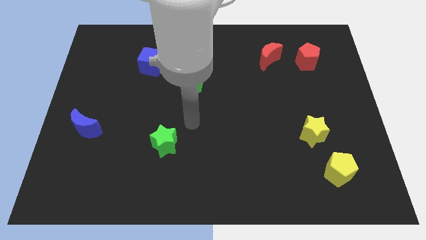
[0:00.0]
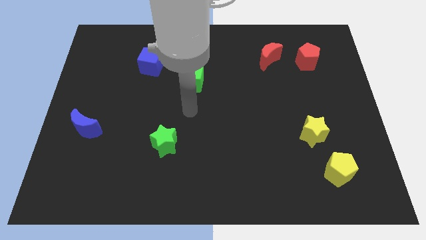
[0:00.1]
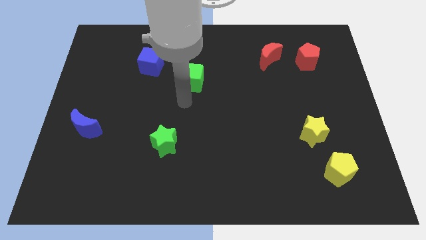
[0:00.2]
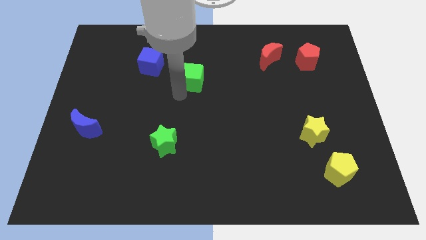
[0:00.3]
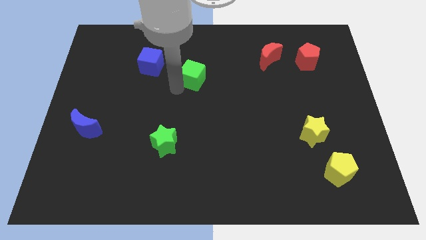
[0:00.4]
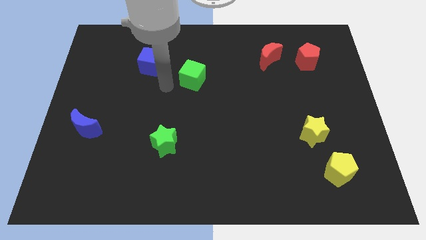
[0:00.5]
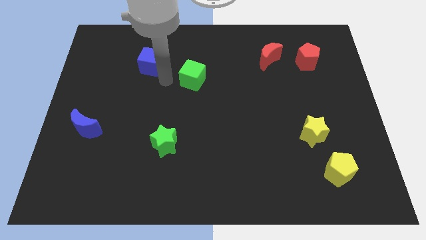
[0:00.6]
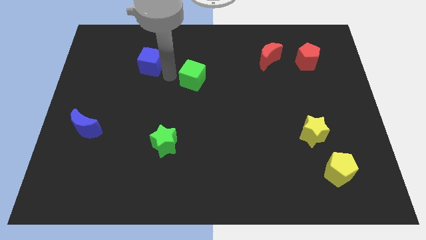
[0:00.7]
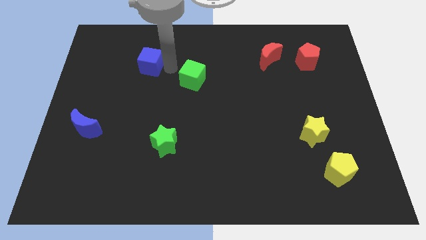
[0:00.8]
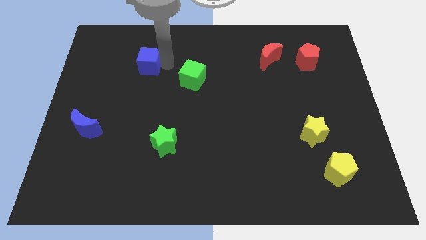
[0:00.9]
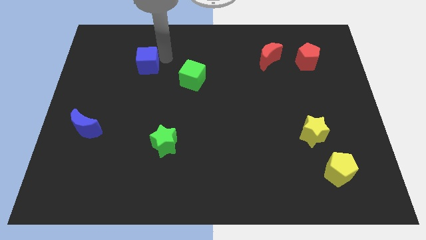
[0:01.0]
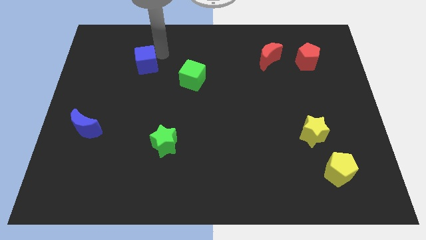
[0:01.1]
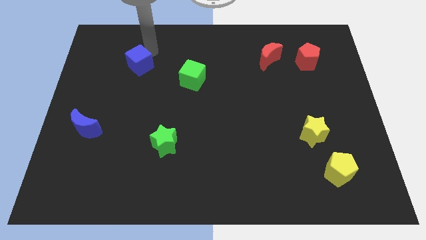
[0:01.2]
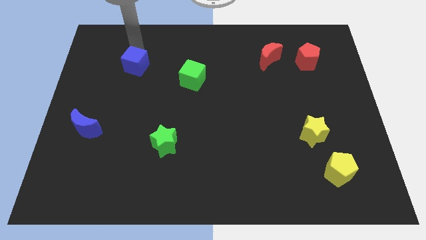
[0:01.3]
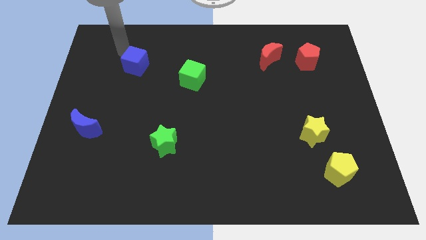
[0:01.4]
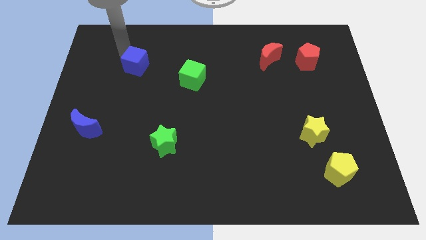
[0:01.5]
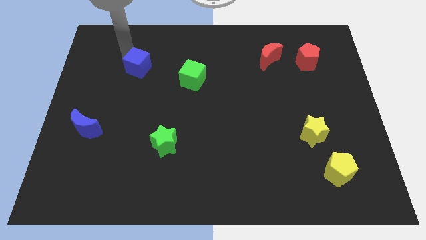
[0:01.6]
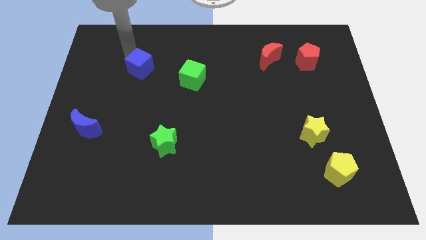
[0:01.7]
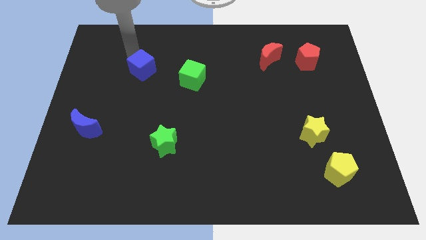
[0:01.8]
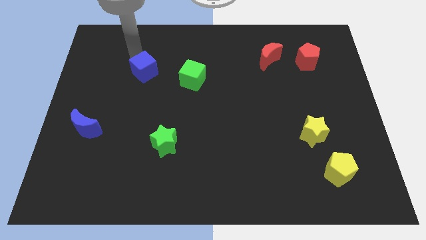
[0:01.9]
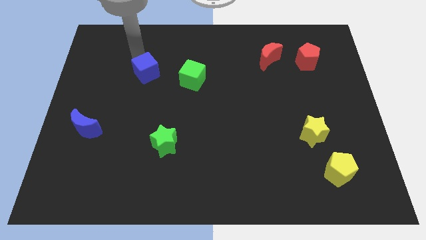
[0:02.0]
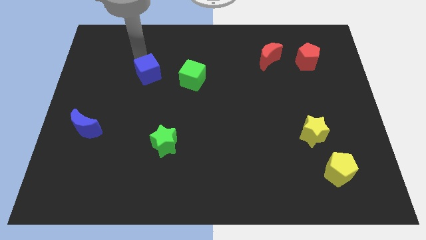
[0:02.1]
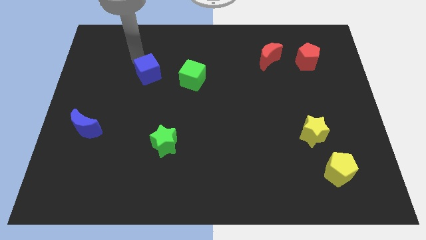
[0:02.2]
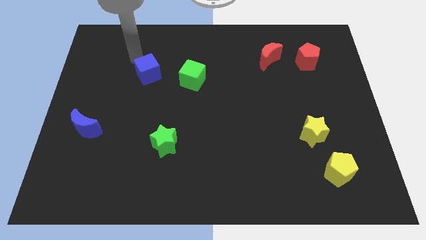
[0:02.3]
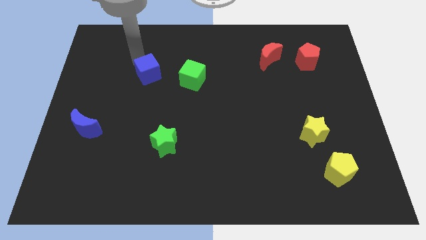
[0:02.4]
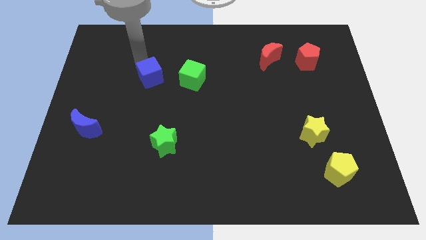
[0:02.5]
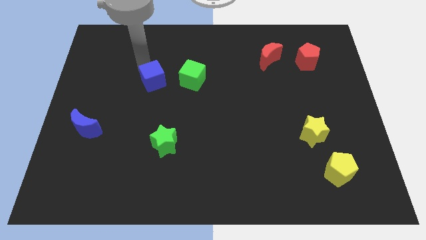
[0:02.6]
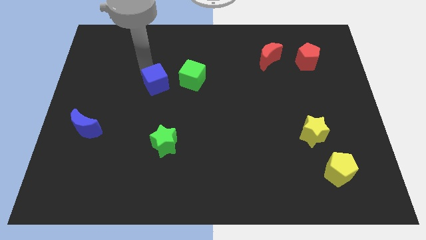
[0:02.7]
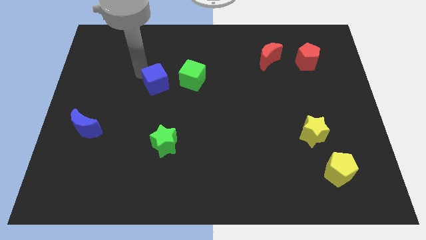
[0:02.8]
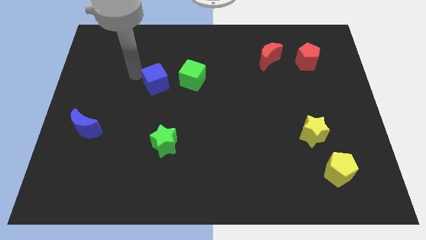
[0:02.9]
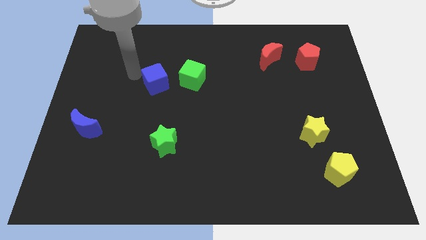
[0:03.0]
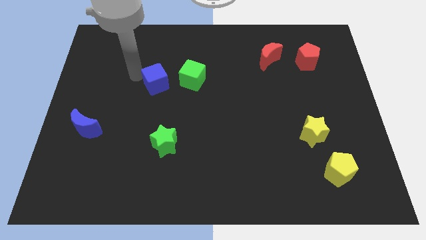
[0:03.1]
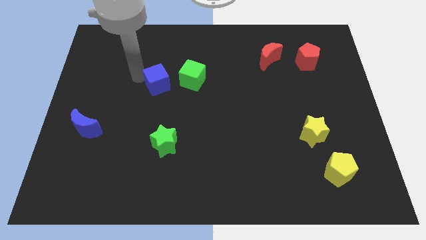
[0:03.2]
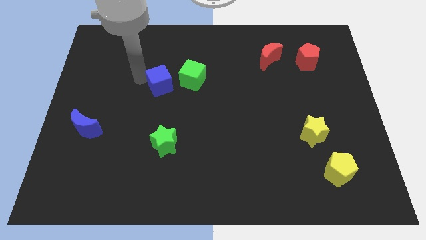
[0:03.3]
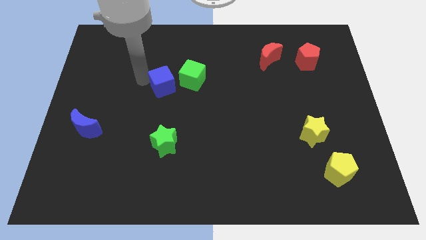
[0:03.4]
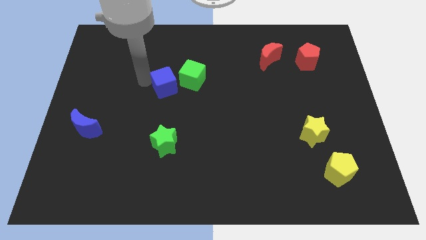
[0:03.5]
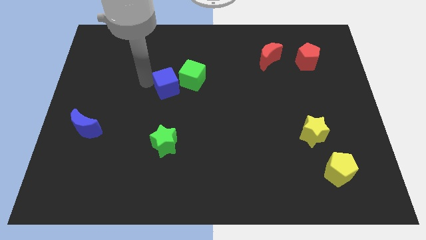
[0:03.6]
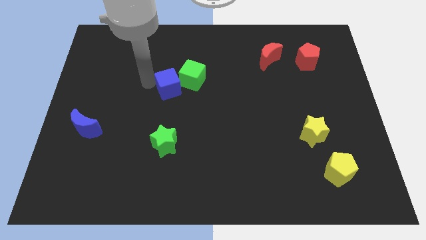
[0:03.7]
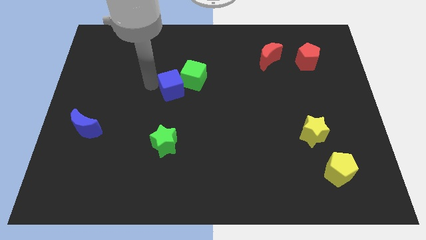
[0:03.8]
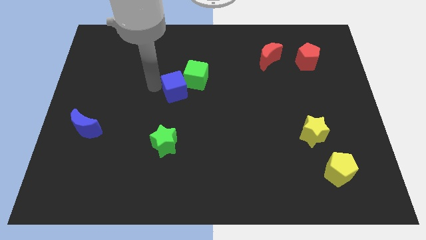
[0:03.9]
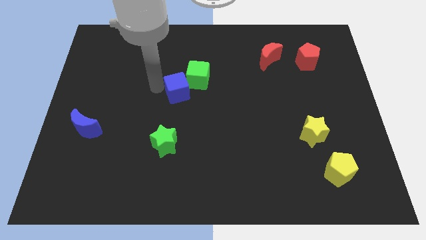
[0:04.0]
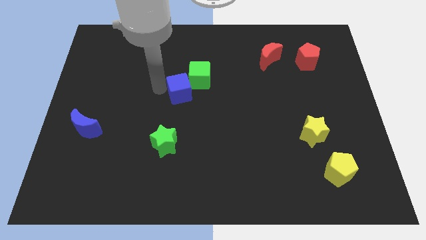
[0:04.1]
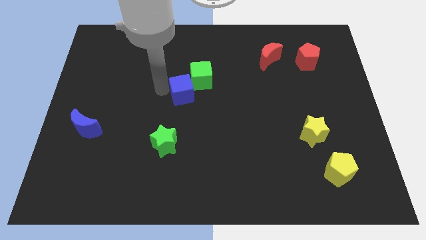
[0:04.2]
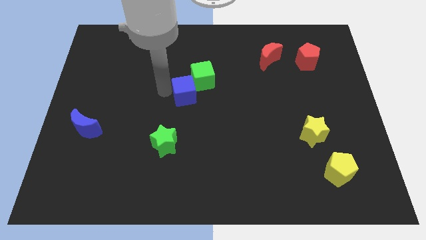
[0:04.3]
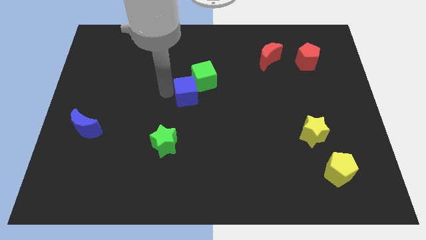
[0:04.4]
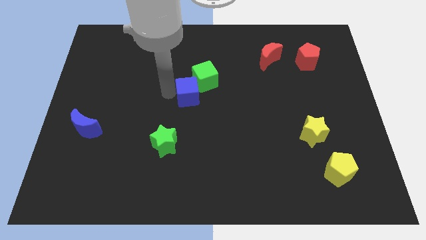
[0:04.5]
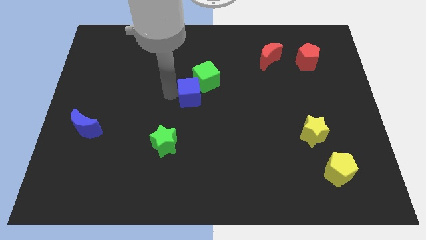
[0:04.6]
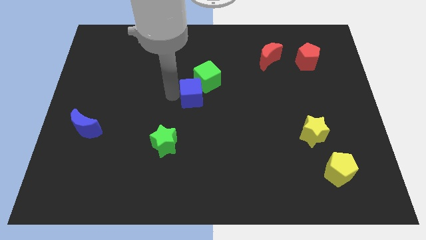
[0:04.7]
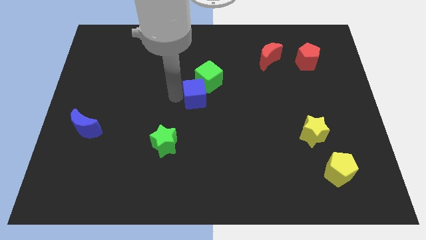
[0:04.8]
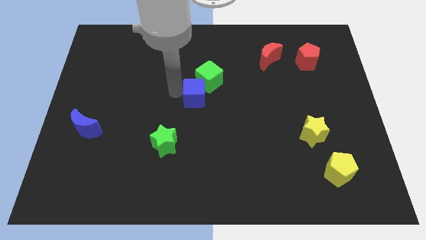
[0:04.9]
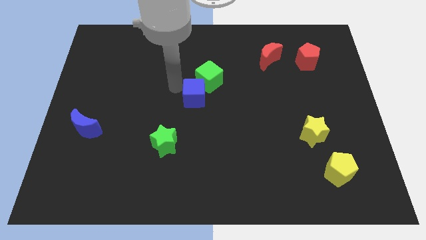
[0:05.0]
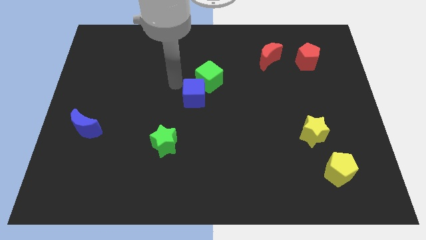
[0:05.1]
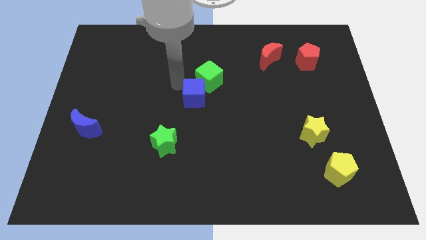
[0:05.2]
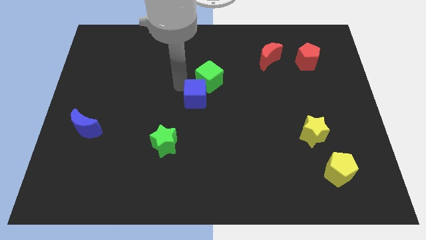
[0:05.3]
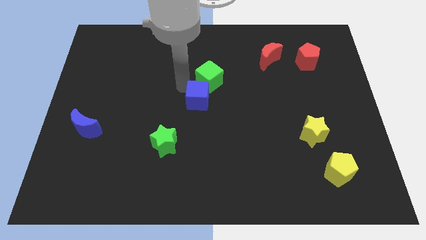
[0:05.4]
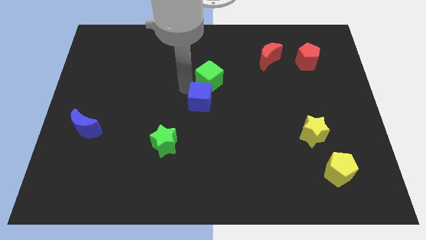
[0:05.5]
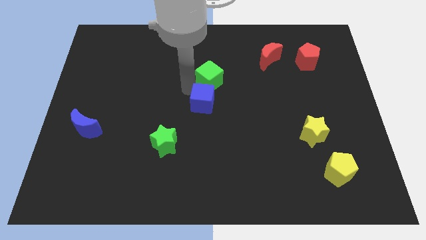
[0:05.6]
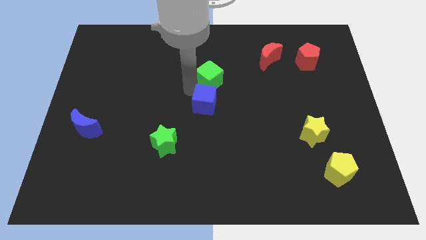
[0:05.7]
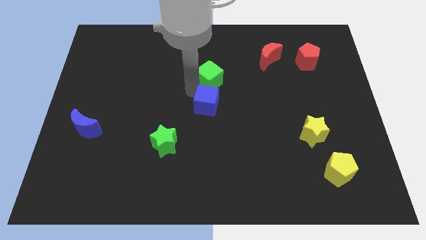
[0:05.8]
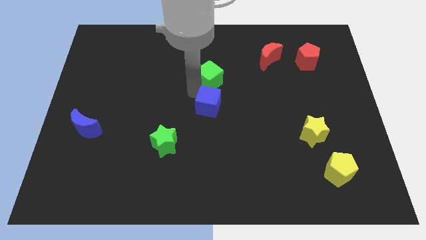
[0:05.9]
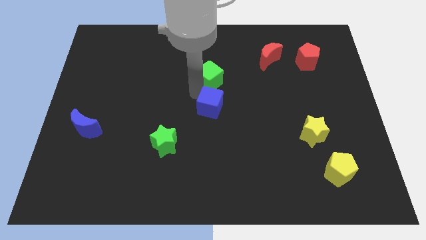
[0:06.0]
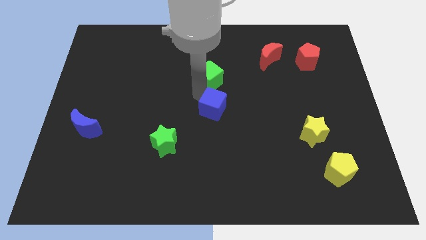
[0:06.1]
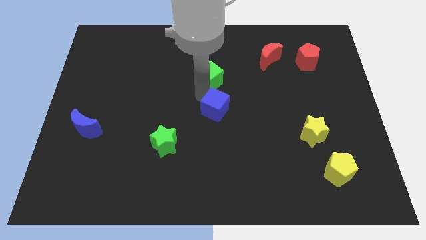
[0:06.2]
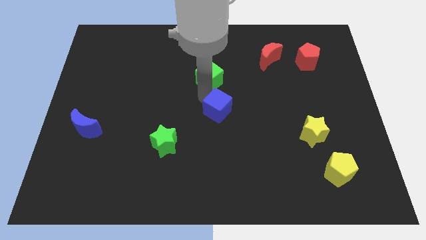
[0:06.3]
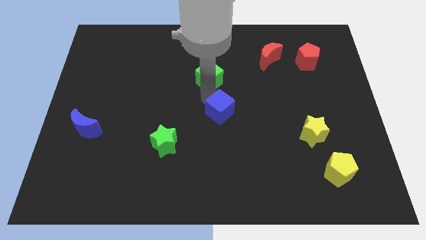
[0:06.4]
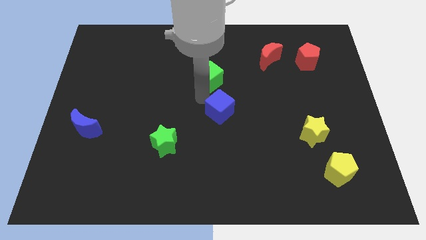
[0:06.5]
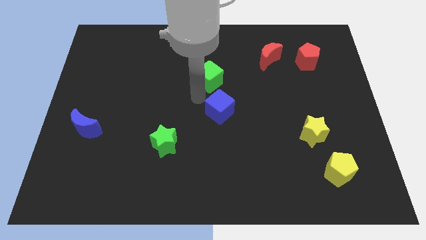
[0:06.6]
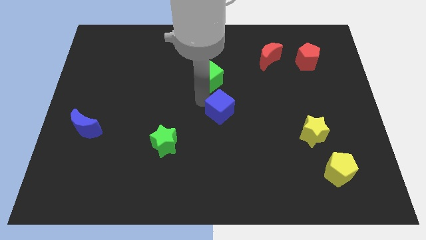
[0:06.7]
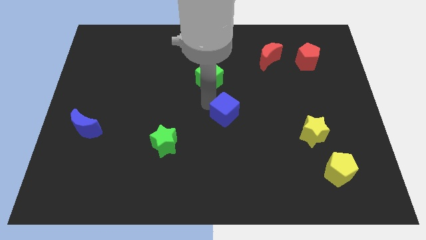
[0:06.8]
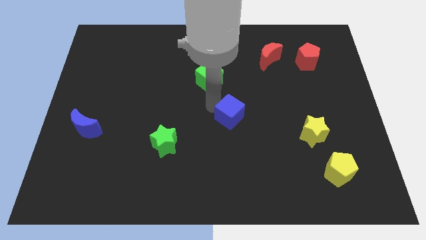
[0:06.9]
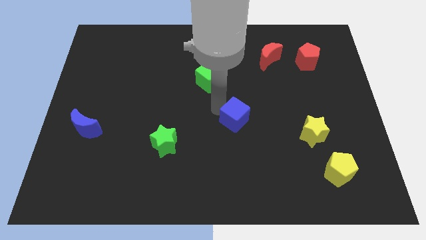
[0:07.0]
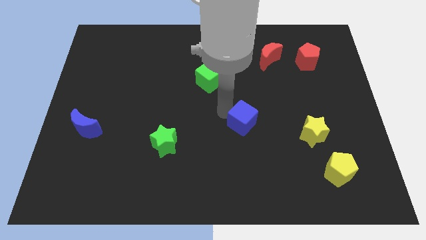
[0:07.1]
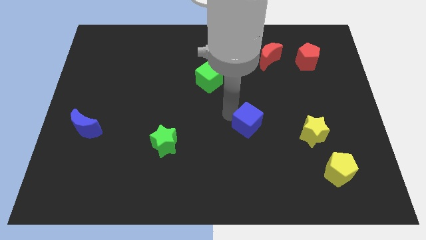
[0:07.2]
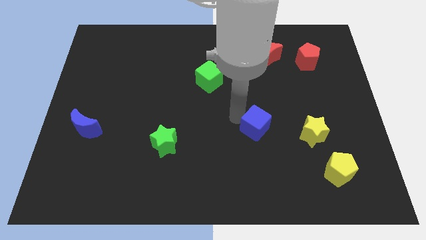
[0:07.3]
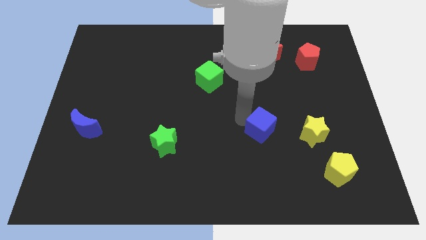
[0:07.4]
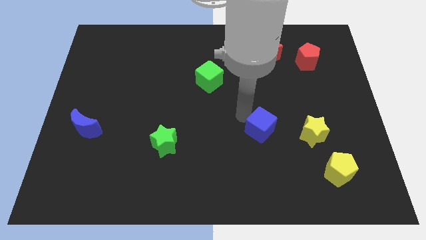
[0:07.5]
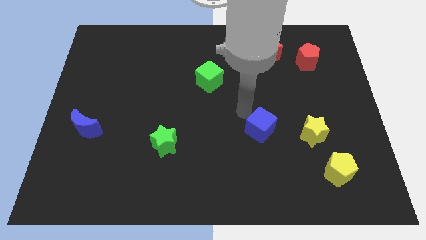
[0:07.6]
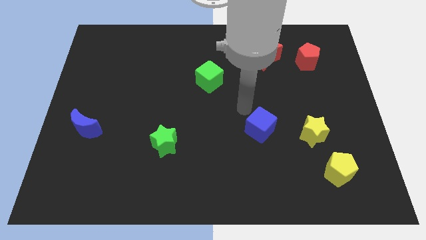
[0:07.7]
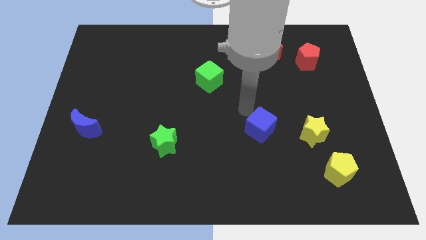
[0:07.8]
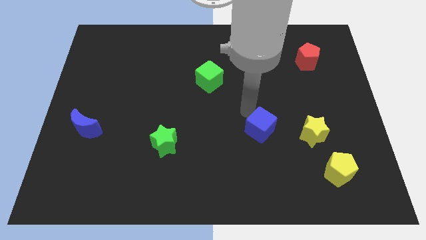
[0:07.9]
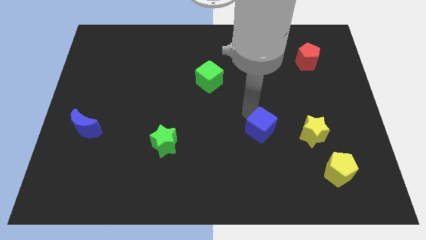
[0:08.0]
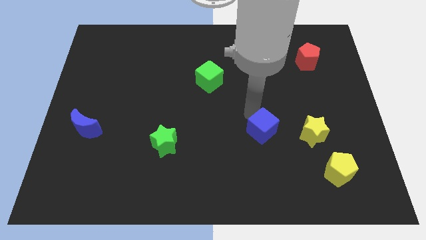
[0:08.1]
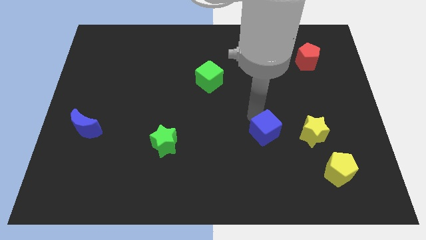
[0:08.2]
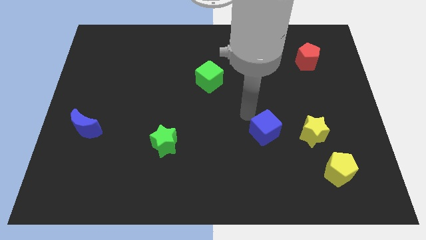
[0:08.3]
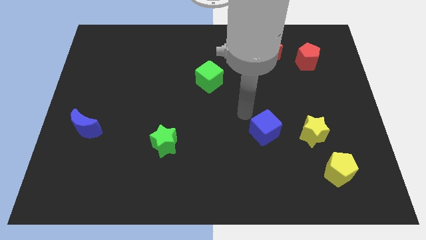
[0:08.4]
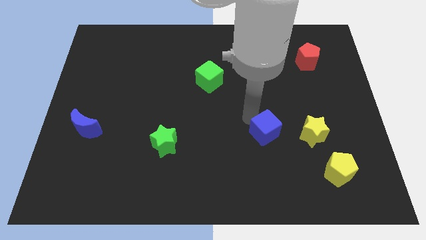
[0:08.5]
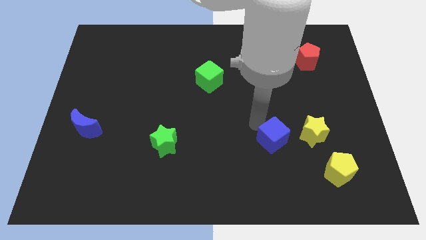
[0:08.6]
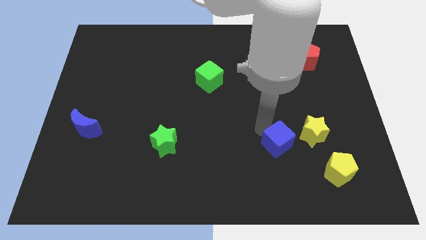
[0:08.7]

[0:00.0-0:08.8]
push the blue cube to the bottom left side of the yellow star
